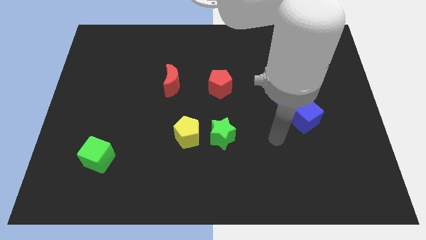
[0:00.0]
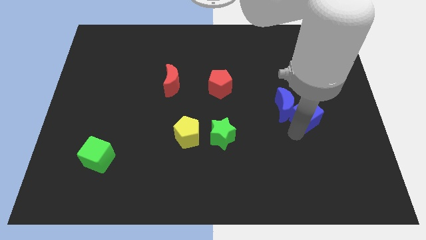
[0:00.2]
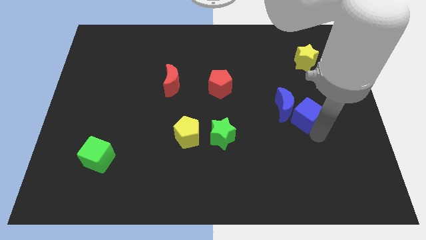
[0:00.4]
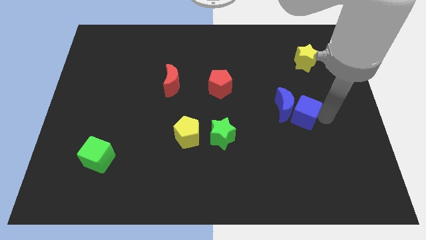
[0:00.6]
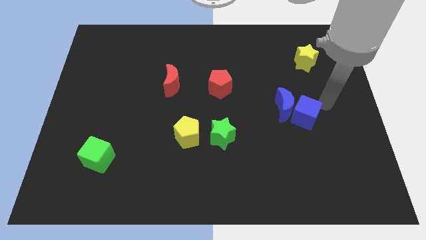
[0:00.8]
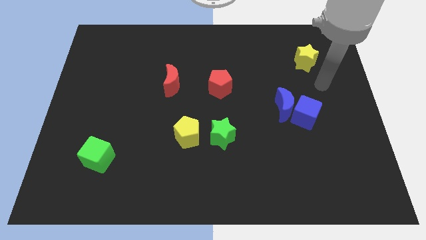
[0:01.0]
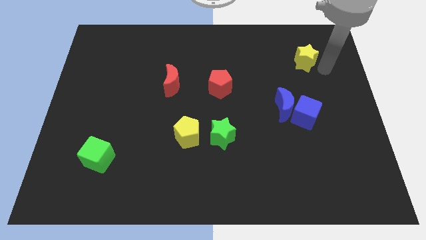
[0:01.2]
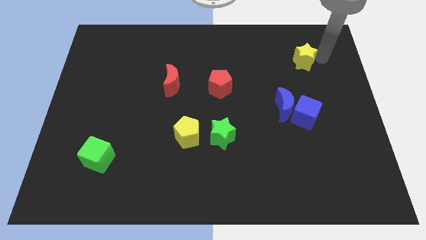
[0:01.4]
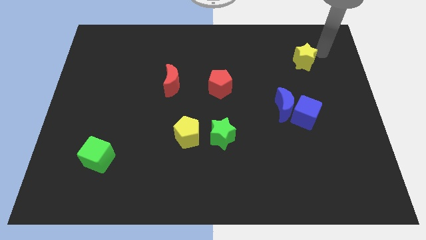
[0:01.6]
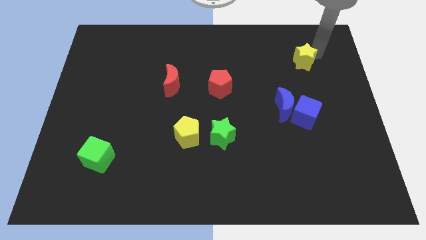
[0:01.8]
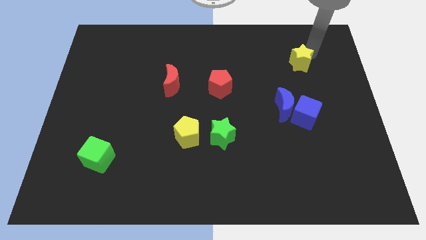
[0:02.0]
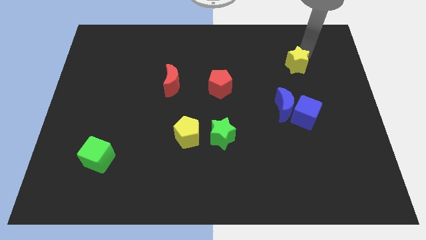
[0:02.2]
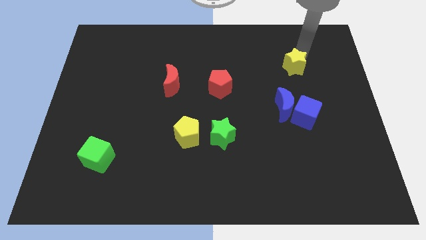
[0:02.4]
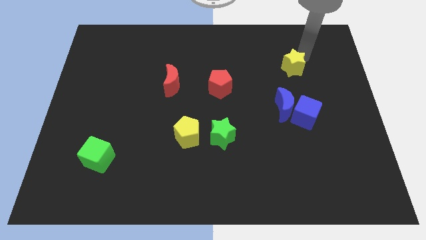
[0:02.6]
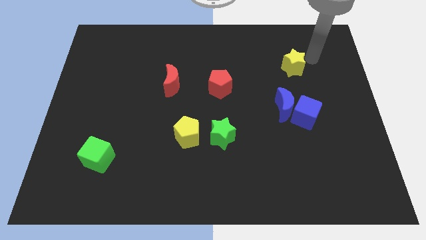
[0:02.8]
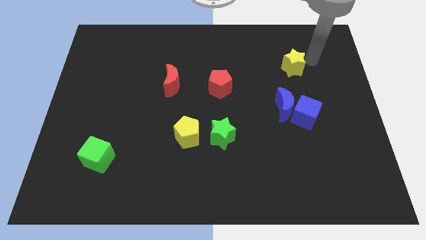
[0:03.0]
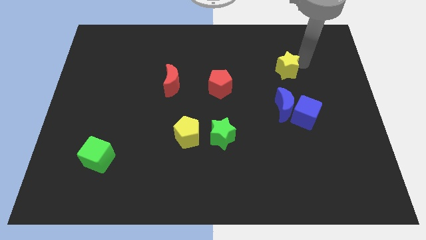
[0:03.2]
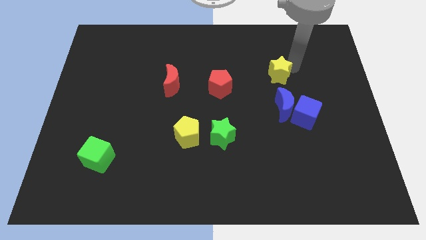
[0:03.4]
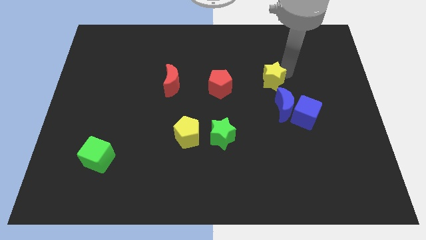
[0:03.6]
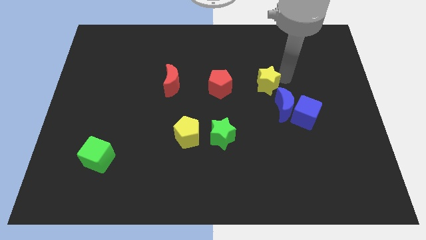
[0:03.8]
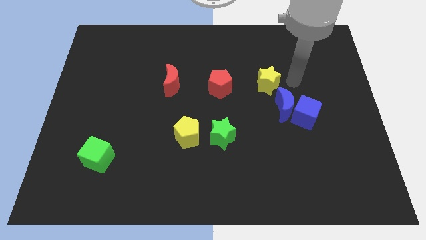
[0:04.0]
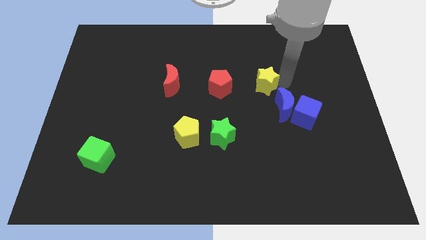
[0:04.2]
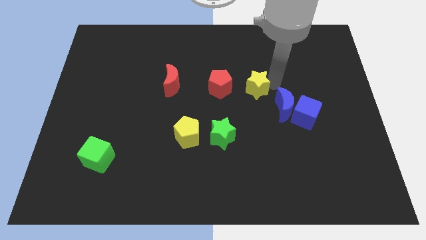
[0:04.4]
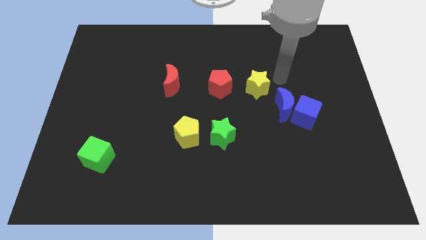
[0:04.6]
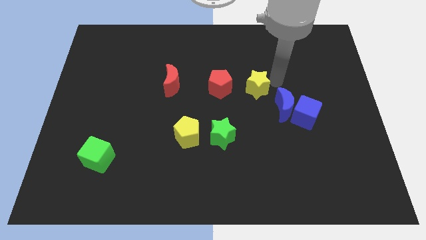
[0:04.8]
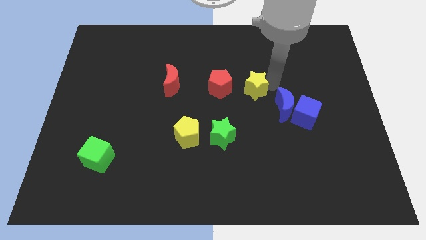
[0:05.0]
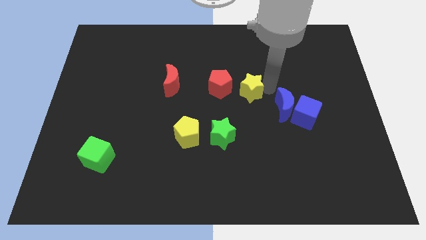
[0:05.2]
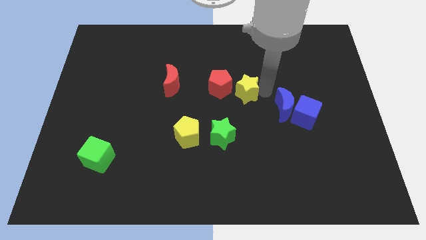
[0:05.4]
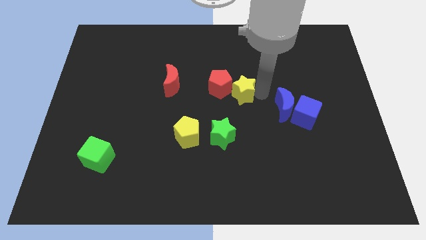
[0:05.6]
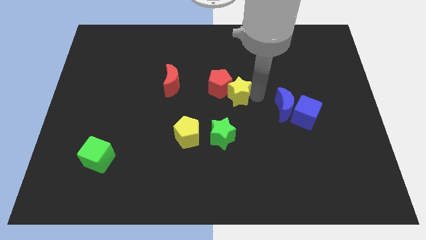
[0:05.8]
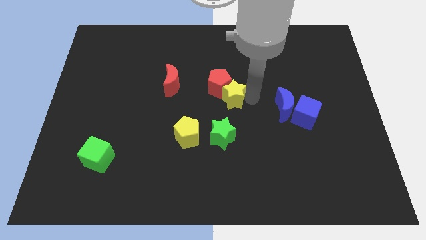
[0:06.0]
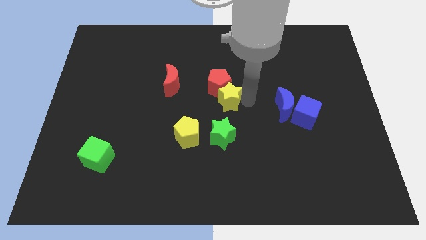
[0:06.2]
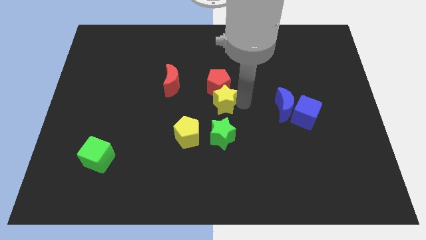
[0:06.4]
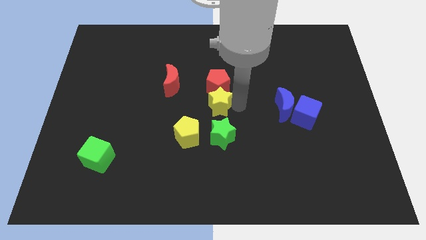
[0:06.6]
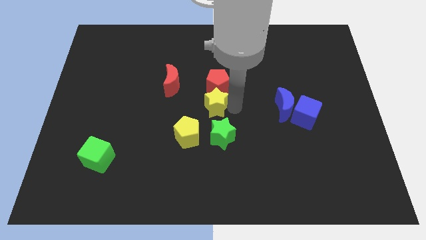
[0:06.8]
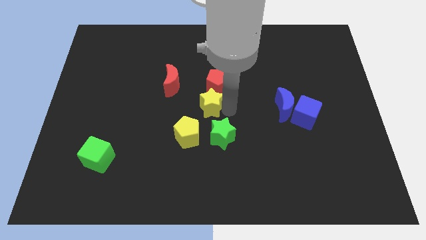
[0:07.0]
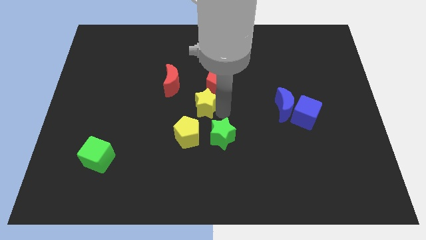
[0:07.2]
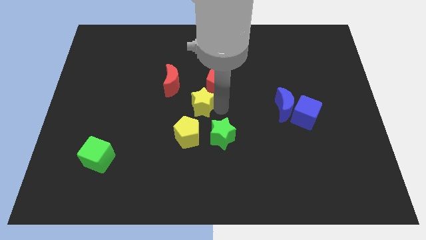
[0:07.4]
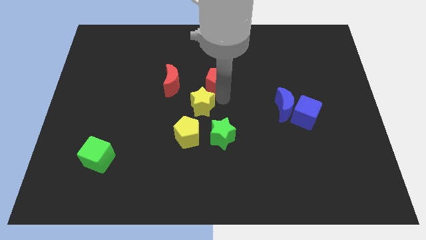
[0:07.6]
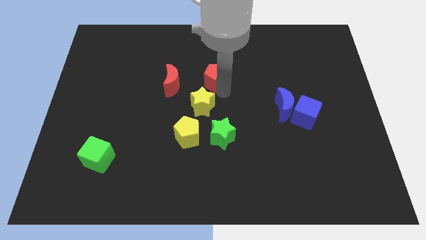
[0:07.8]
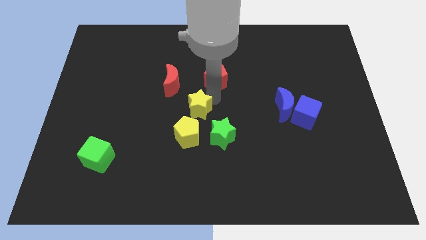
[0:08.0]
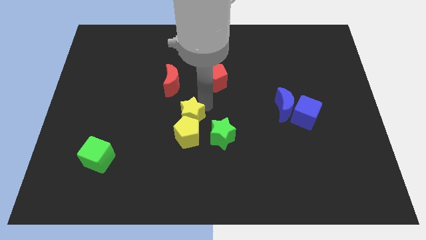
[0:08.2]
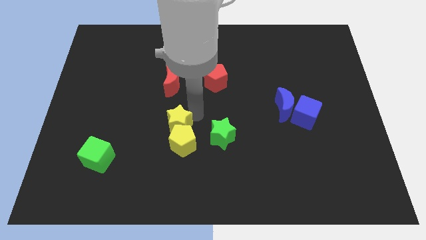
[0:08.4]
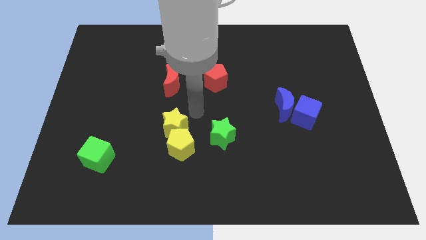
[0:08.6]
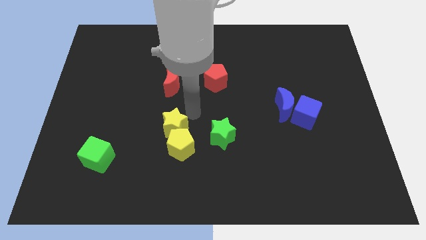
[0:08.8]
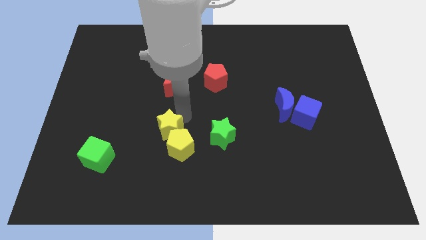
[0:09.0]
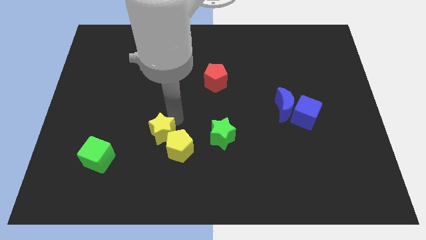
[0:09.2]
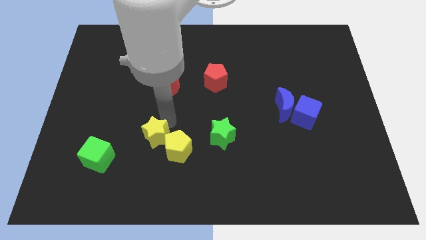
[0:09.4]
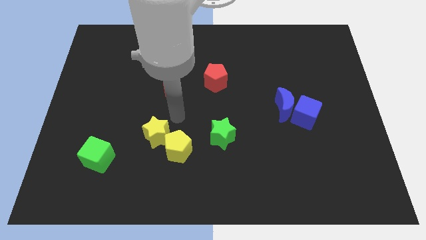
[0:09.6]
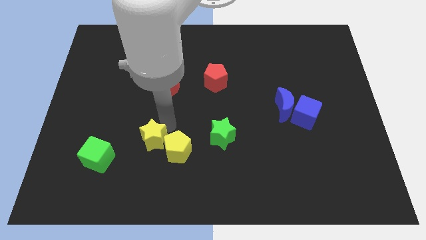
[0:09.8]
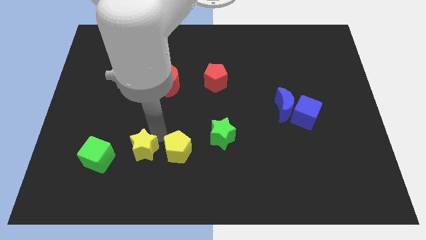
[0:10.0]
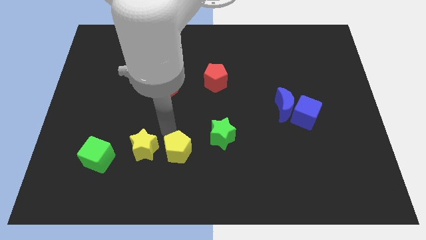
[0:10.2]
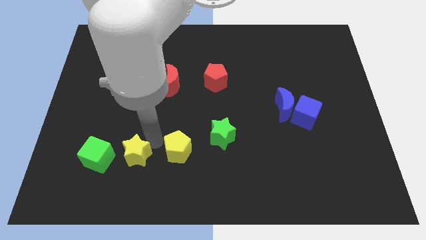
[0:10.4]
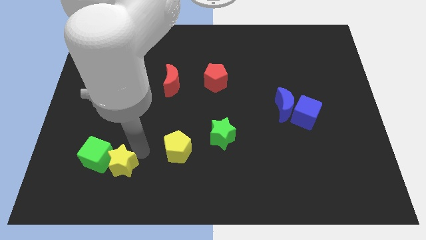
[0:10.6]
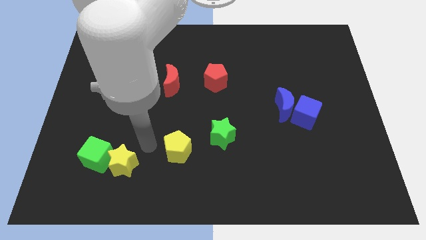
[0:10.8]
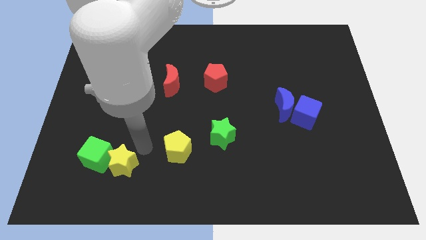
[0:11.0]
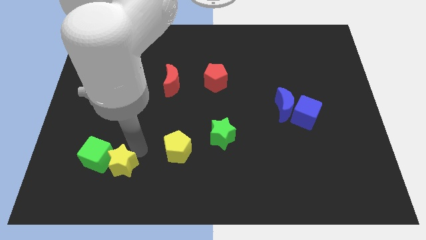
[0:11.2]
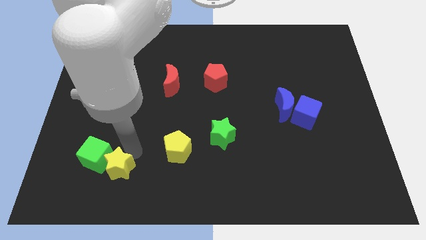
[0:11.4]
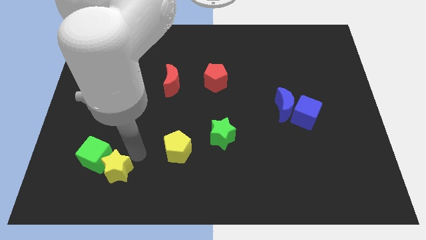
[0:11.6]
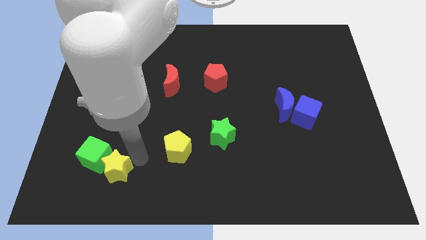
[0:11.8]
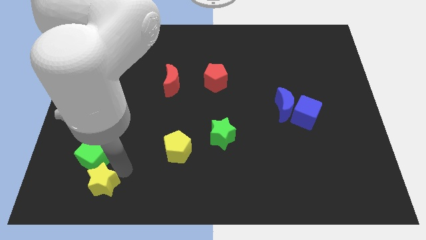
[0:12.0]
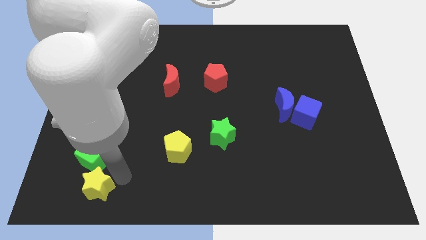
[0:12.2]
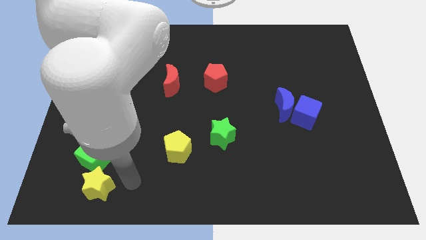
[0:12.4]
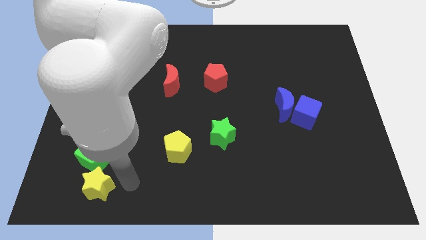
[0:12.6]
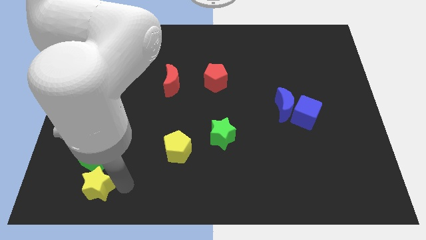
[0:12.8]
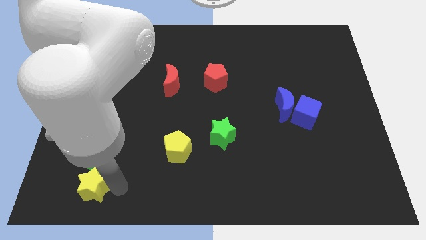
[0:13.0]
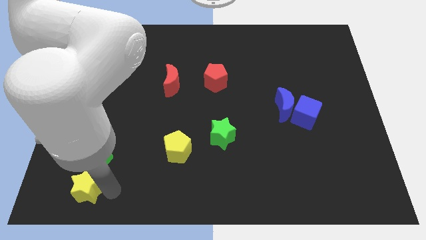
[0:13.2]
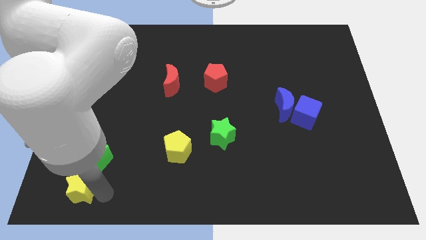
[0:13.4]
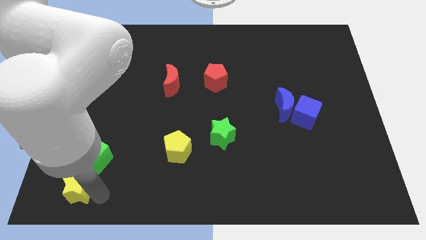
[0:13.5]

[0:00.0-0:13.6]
slide the yellow star to the bottom left of the board
